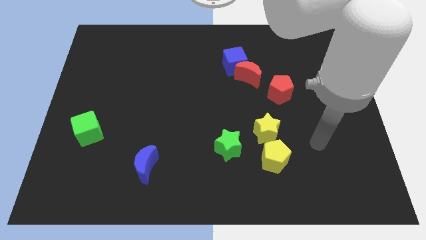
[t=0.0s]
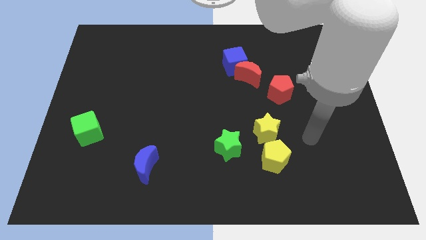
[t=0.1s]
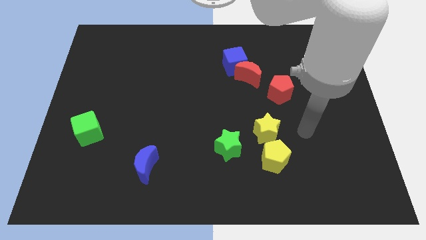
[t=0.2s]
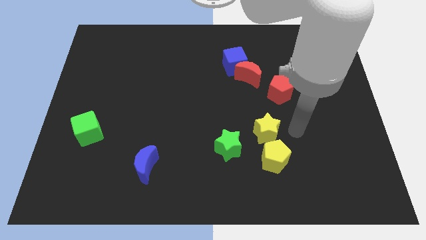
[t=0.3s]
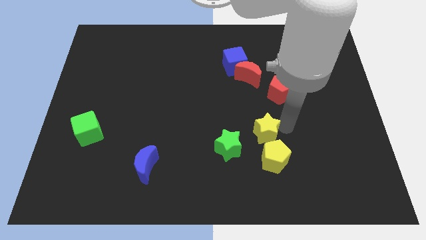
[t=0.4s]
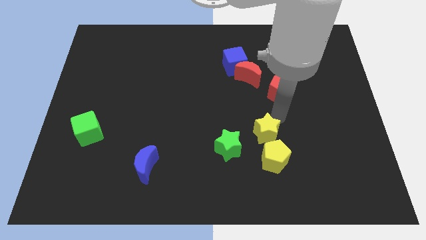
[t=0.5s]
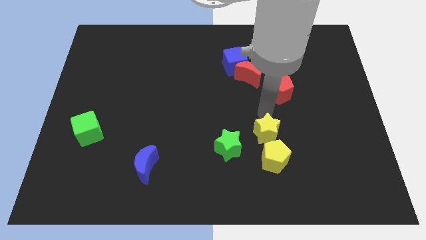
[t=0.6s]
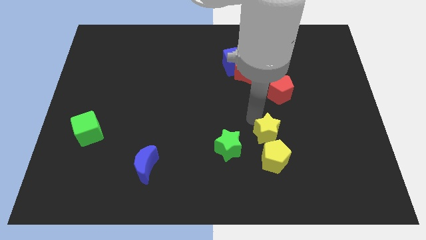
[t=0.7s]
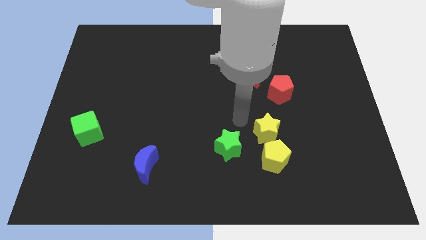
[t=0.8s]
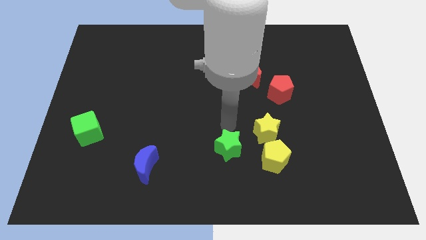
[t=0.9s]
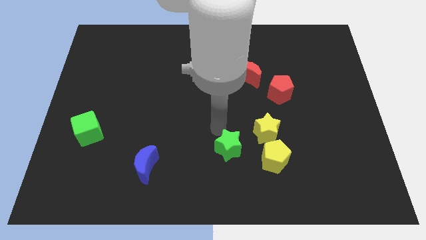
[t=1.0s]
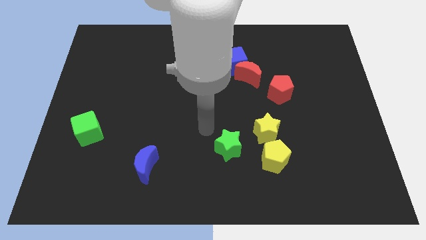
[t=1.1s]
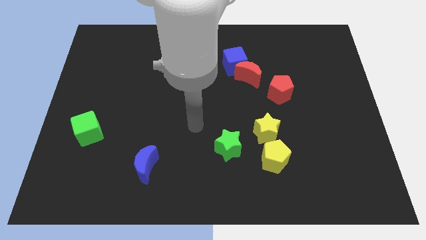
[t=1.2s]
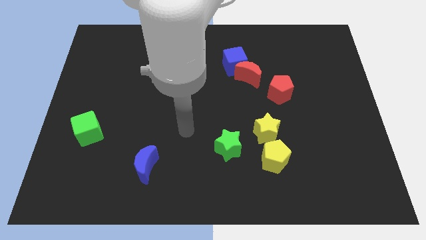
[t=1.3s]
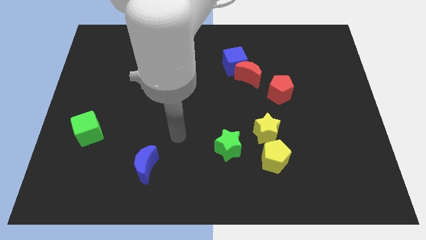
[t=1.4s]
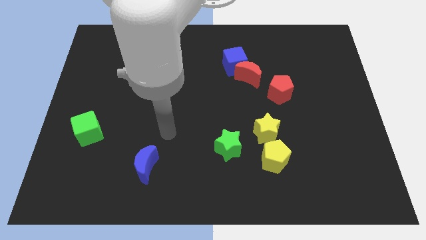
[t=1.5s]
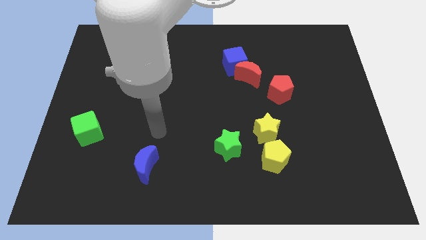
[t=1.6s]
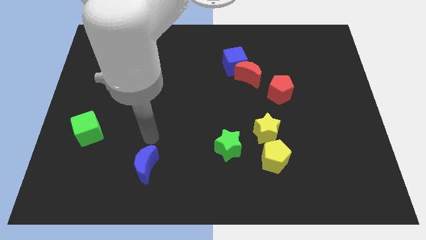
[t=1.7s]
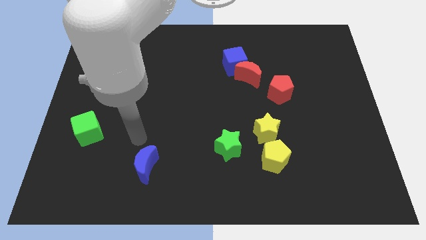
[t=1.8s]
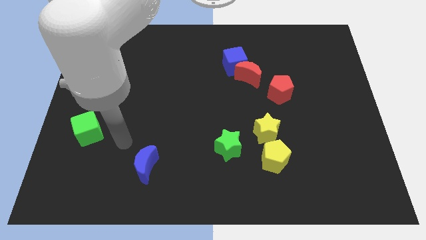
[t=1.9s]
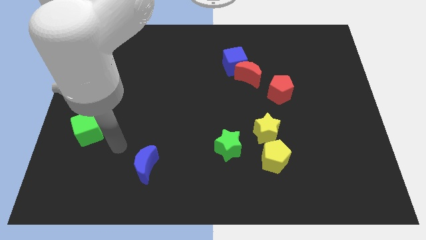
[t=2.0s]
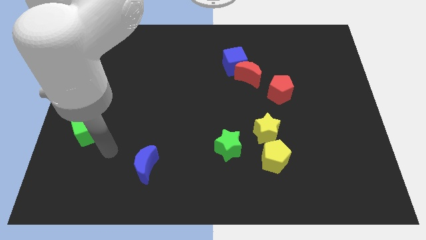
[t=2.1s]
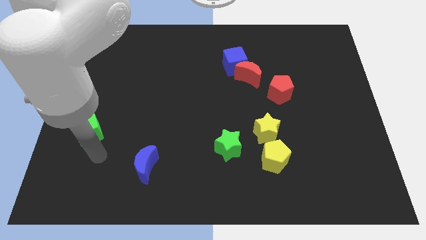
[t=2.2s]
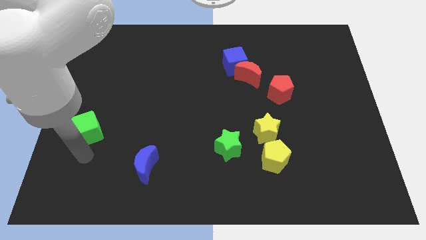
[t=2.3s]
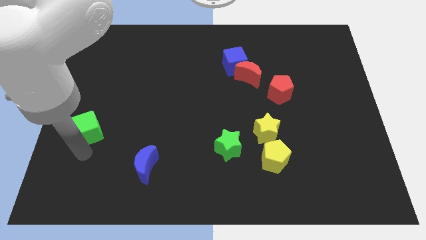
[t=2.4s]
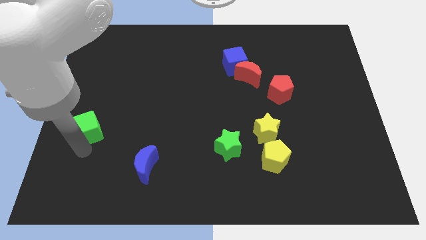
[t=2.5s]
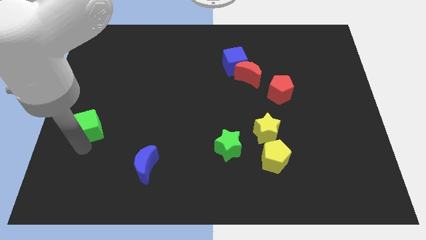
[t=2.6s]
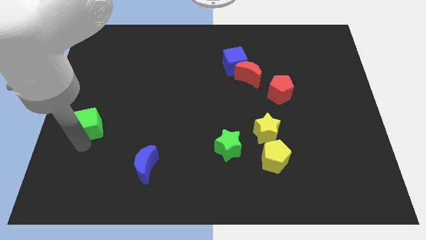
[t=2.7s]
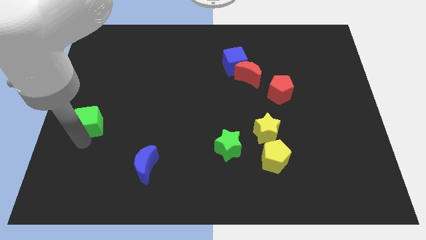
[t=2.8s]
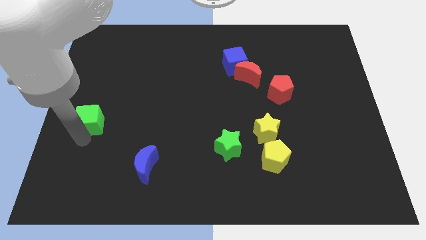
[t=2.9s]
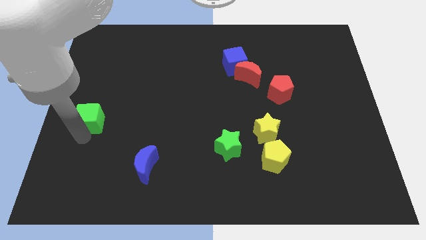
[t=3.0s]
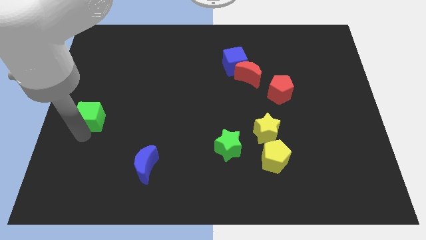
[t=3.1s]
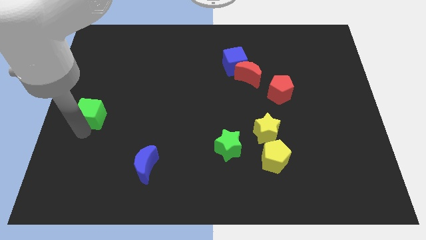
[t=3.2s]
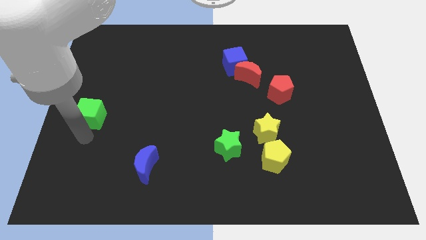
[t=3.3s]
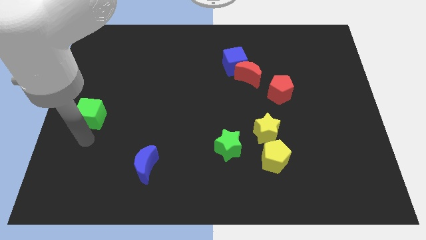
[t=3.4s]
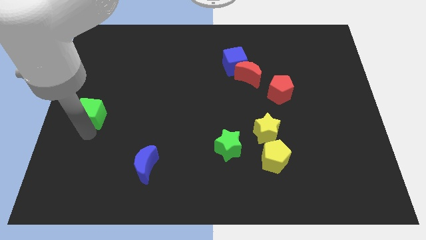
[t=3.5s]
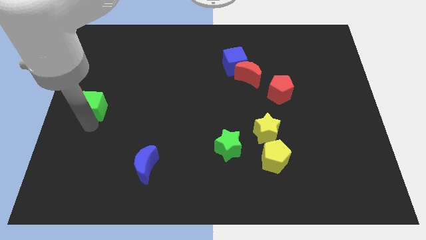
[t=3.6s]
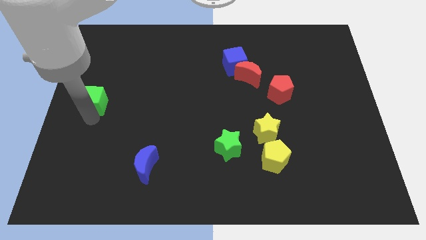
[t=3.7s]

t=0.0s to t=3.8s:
slightly slide the green cube upwards

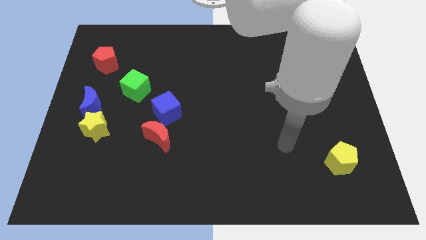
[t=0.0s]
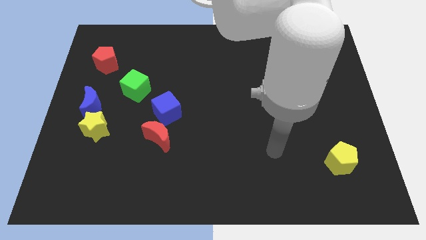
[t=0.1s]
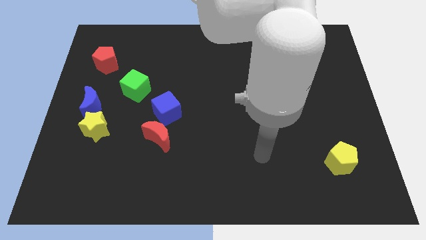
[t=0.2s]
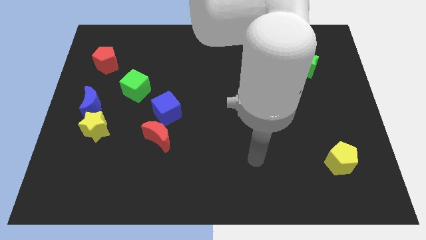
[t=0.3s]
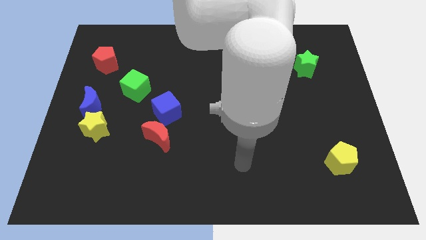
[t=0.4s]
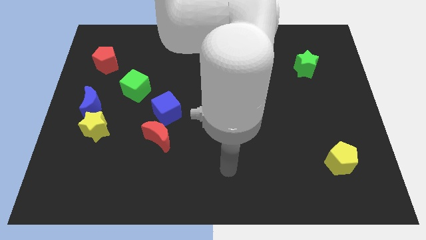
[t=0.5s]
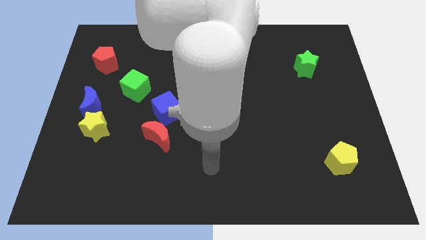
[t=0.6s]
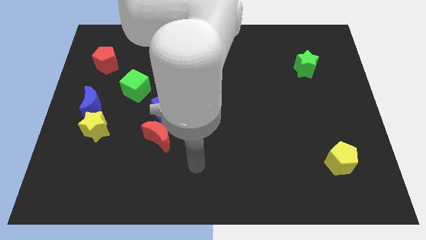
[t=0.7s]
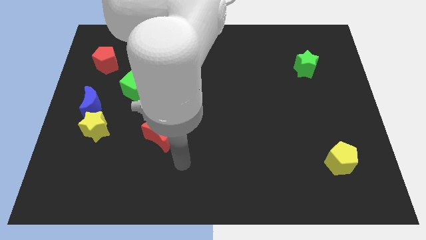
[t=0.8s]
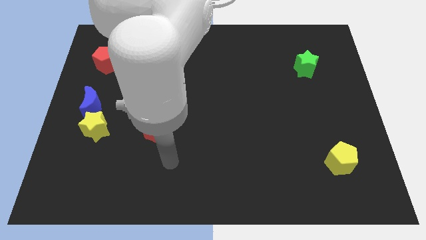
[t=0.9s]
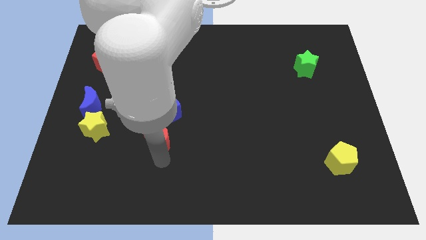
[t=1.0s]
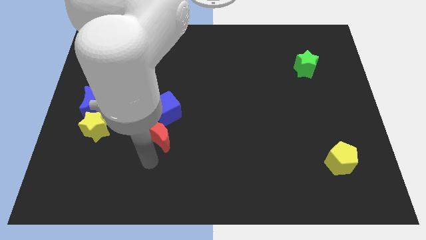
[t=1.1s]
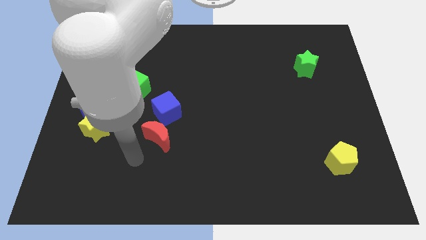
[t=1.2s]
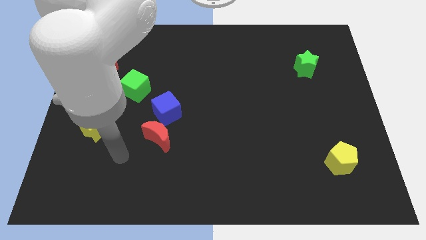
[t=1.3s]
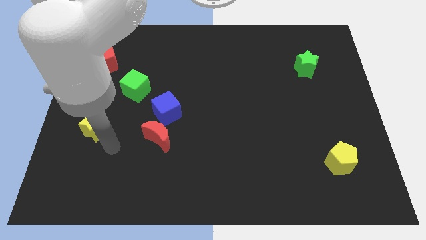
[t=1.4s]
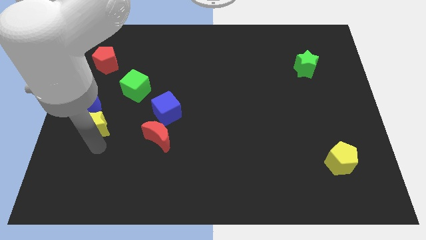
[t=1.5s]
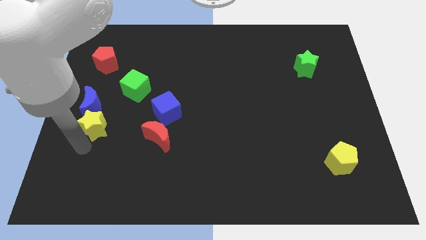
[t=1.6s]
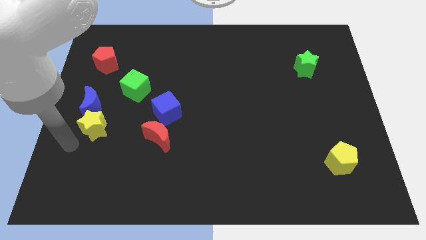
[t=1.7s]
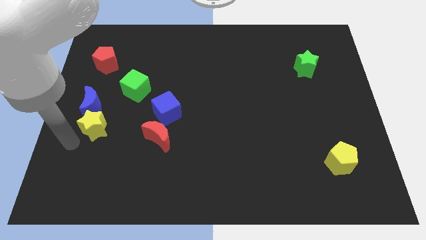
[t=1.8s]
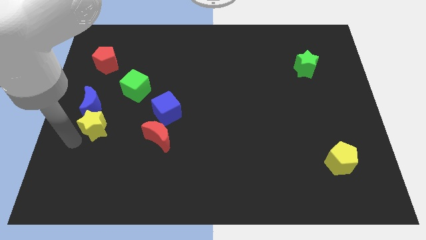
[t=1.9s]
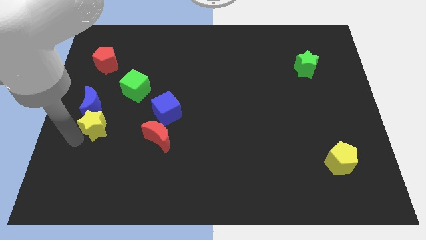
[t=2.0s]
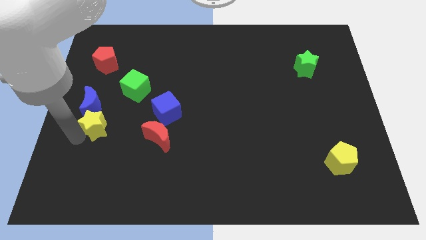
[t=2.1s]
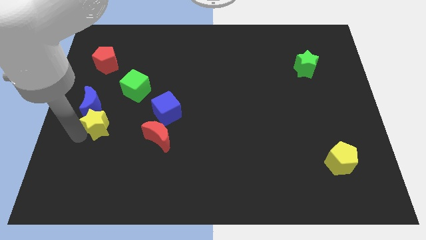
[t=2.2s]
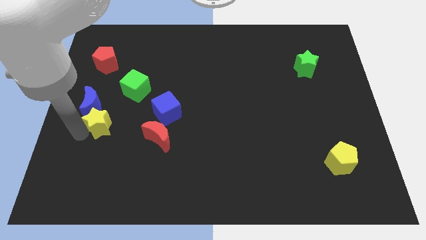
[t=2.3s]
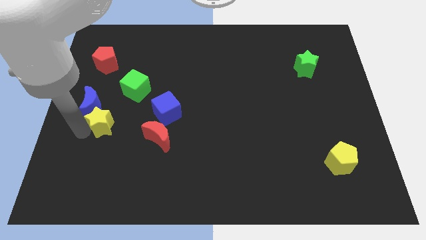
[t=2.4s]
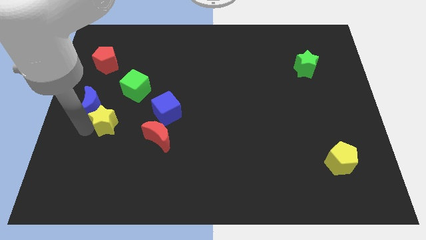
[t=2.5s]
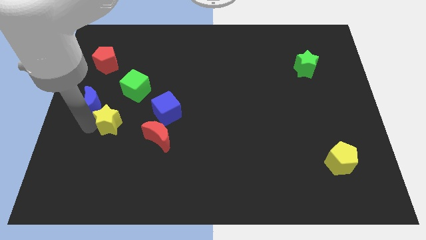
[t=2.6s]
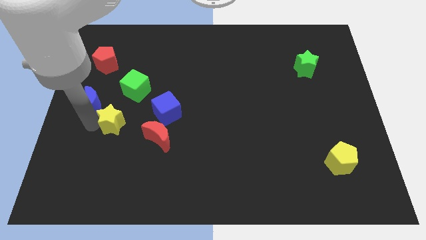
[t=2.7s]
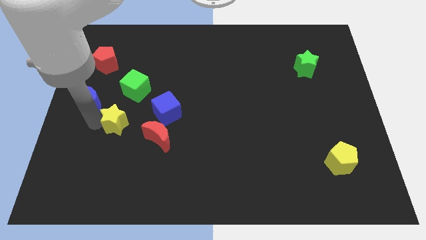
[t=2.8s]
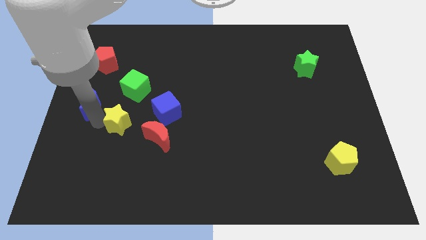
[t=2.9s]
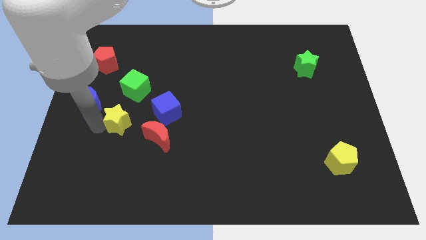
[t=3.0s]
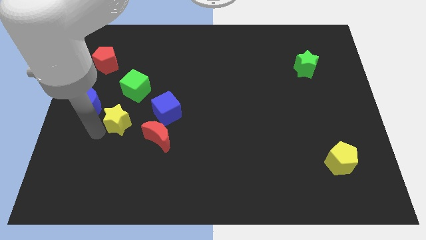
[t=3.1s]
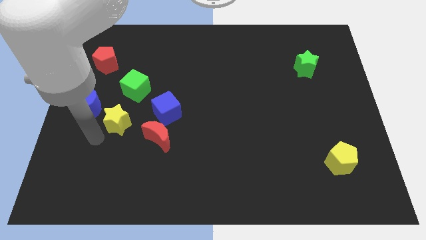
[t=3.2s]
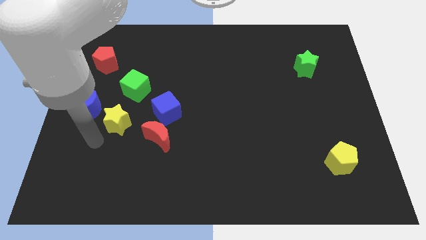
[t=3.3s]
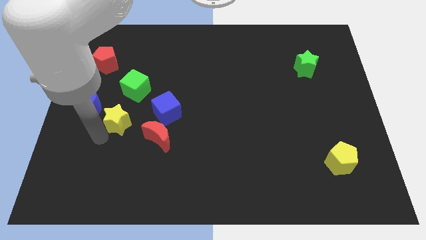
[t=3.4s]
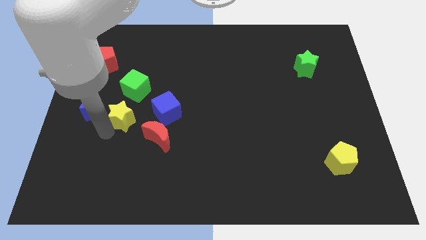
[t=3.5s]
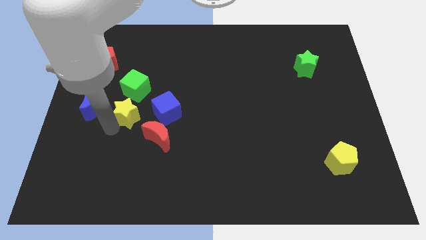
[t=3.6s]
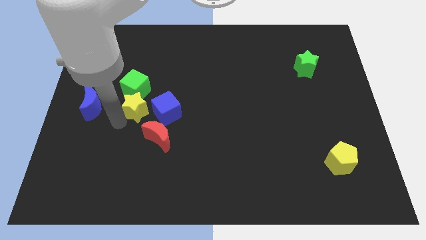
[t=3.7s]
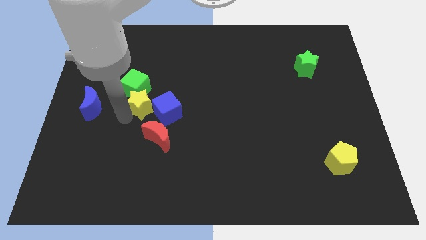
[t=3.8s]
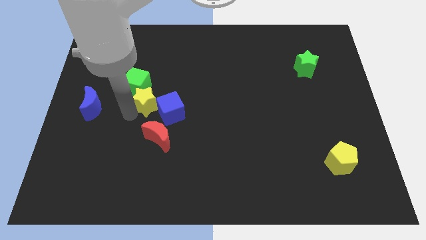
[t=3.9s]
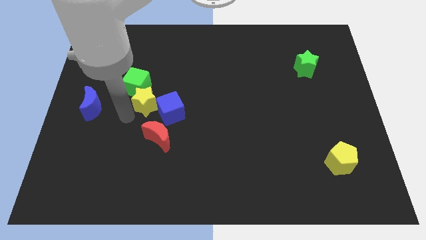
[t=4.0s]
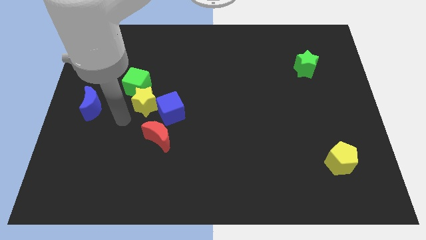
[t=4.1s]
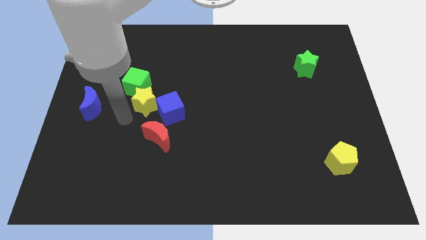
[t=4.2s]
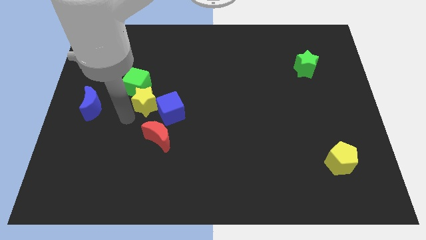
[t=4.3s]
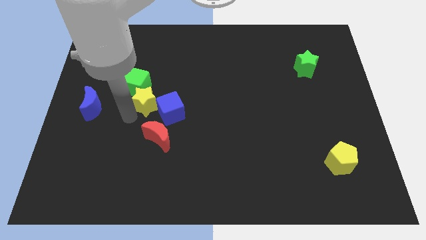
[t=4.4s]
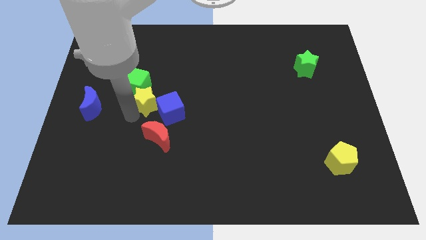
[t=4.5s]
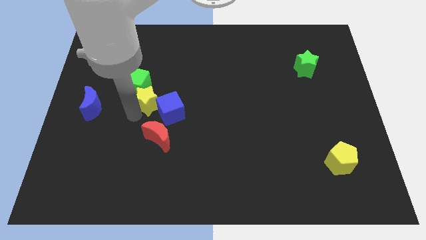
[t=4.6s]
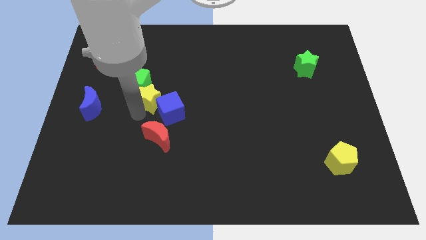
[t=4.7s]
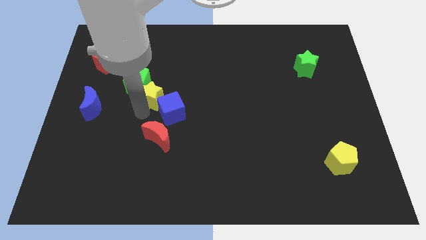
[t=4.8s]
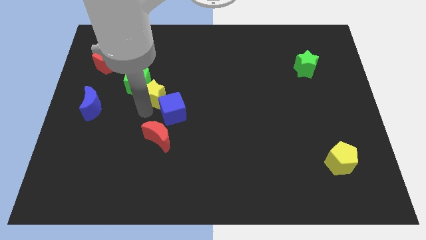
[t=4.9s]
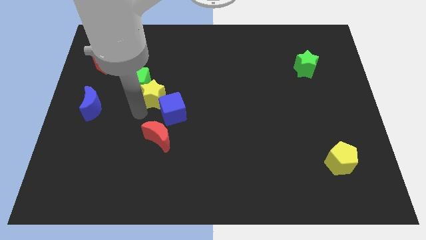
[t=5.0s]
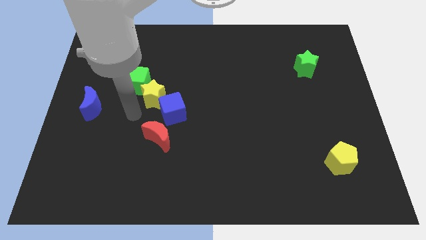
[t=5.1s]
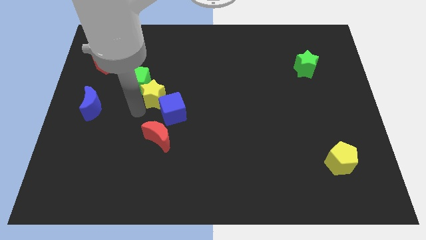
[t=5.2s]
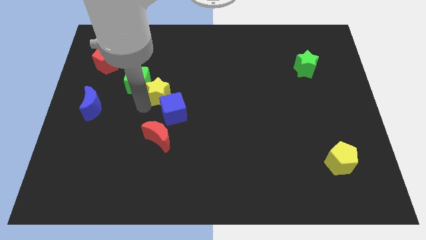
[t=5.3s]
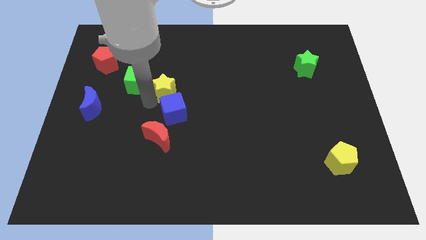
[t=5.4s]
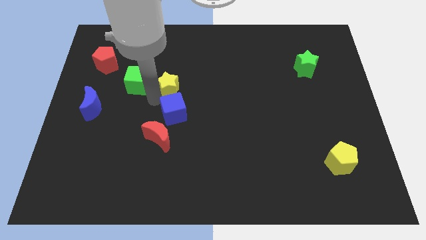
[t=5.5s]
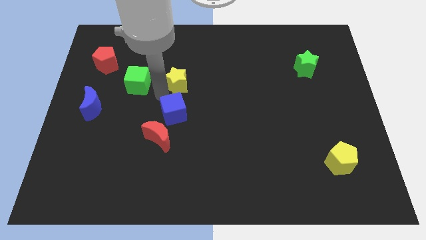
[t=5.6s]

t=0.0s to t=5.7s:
slide the yellow star upwards and to the right
